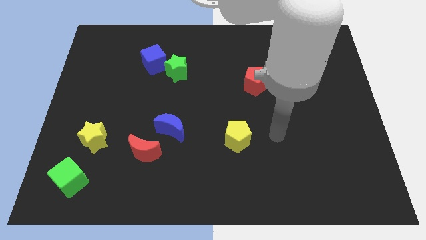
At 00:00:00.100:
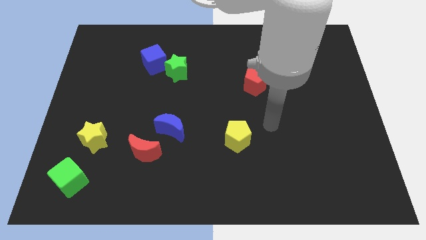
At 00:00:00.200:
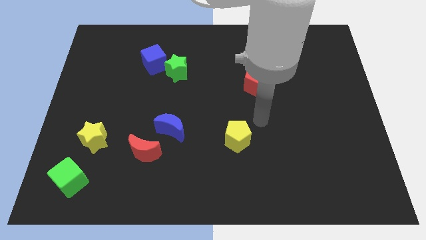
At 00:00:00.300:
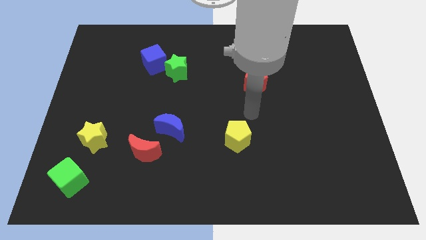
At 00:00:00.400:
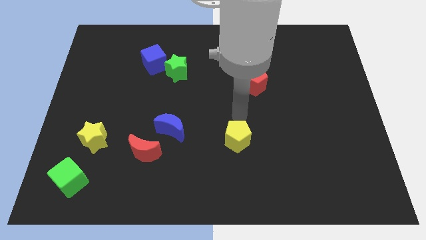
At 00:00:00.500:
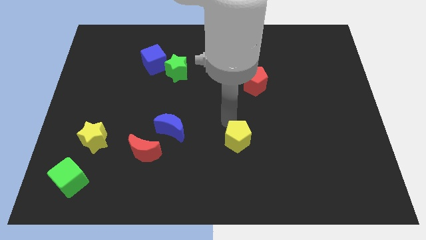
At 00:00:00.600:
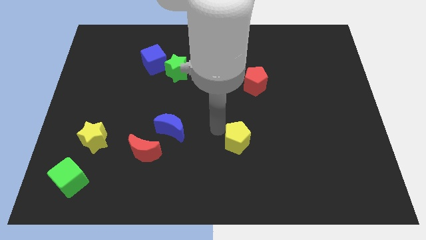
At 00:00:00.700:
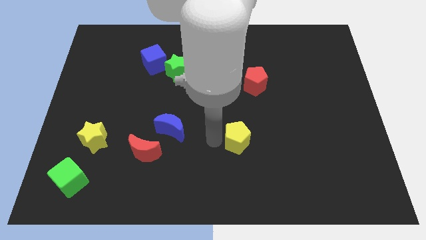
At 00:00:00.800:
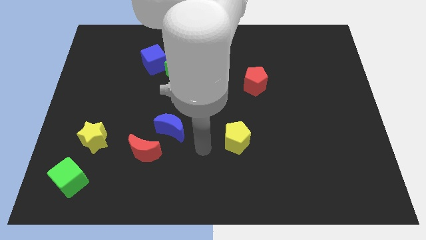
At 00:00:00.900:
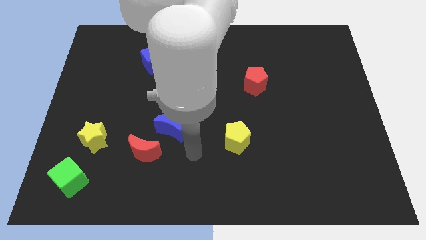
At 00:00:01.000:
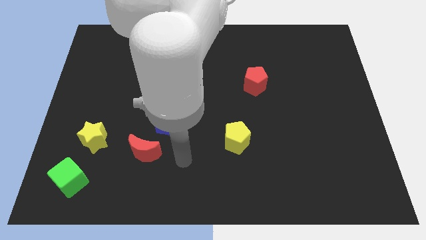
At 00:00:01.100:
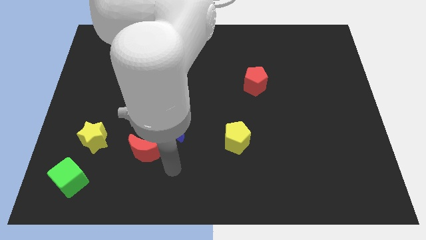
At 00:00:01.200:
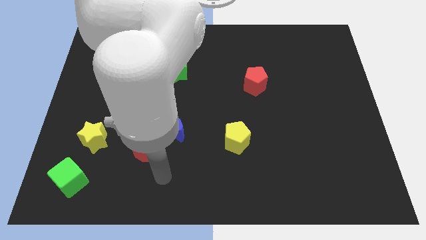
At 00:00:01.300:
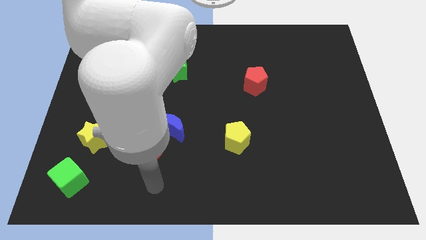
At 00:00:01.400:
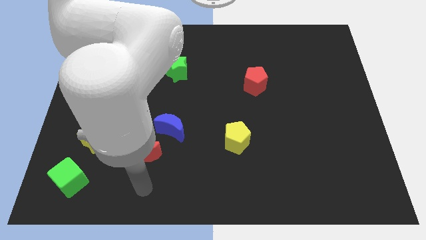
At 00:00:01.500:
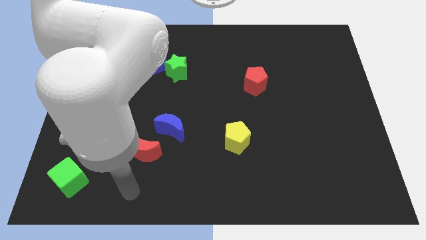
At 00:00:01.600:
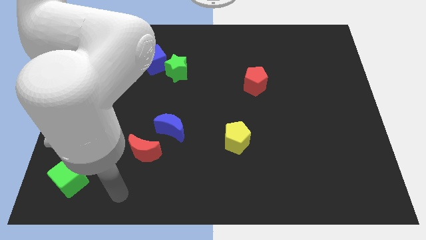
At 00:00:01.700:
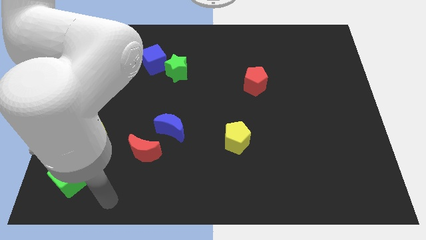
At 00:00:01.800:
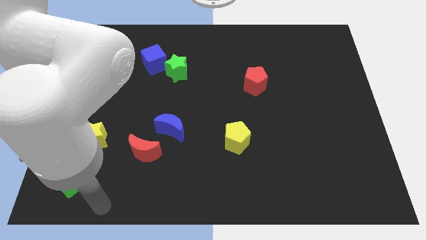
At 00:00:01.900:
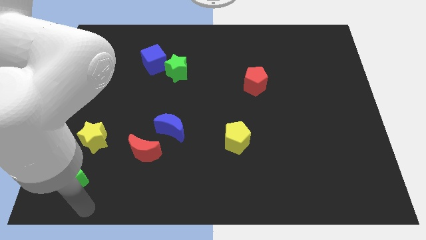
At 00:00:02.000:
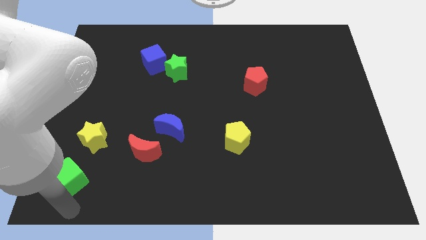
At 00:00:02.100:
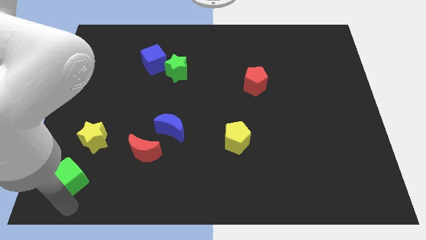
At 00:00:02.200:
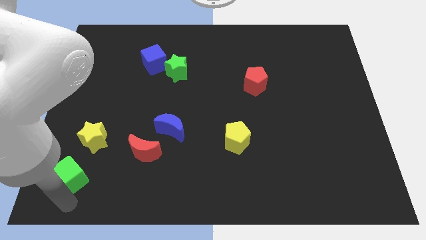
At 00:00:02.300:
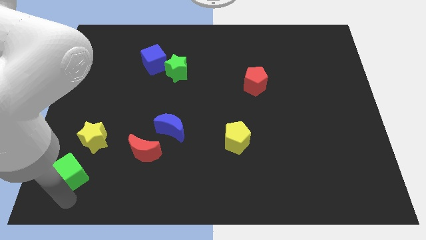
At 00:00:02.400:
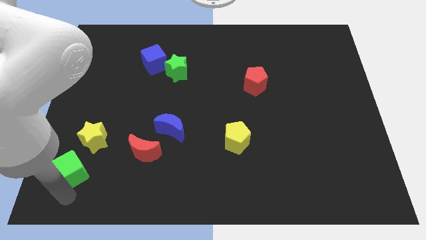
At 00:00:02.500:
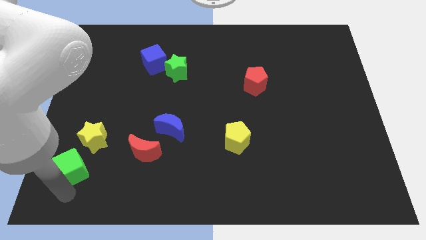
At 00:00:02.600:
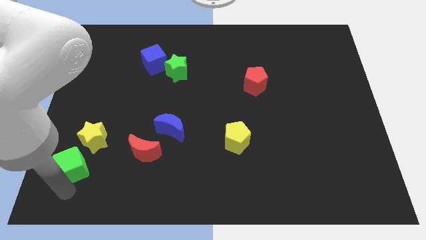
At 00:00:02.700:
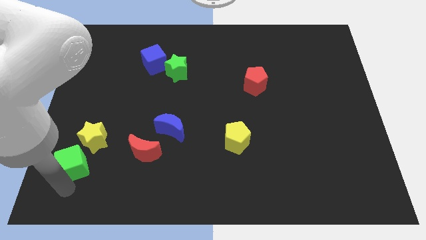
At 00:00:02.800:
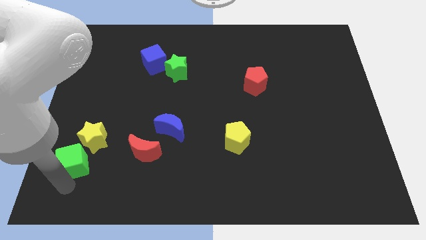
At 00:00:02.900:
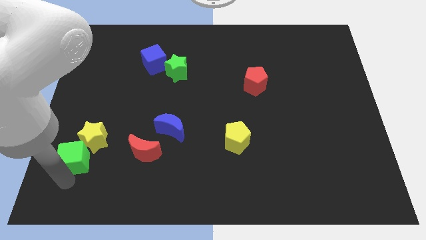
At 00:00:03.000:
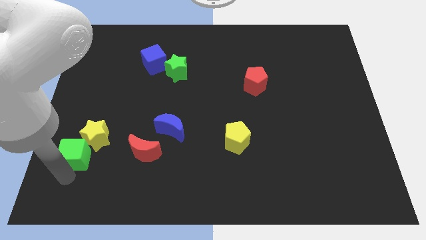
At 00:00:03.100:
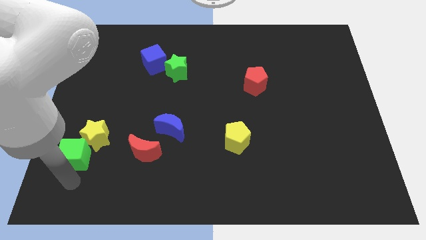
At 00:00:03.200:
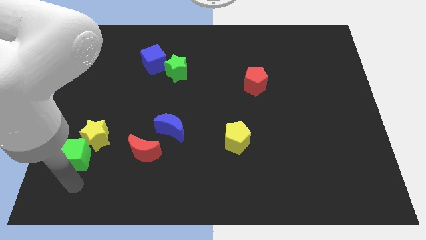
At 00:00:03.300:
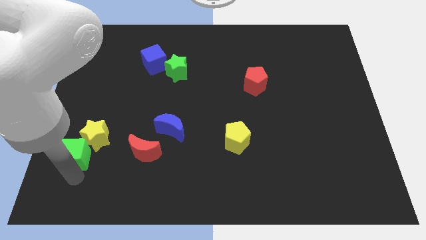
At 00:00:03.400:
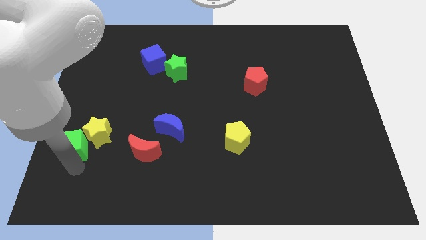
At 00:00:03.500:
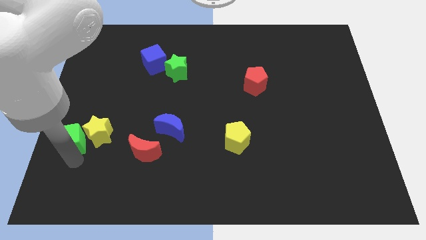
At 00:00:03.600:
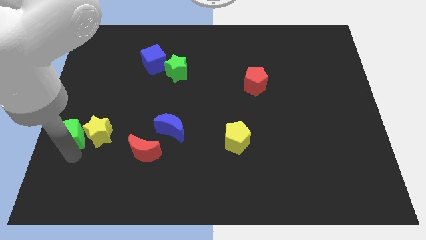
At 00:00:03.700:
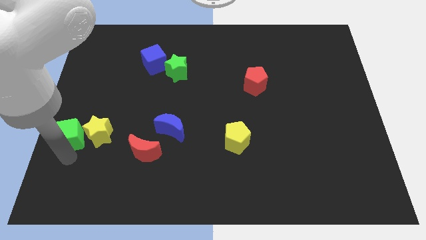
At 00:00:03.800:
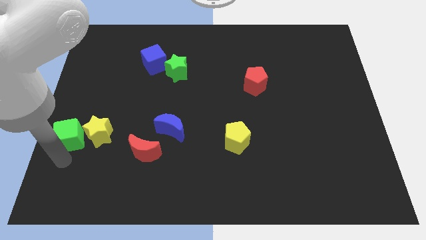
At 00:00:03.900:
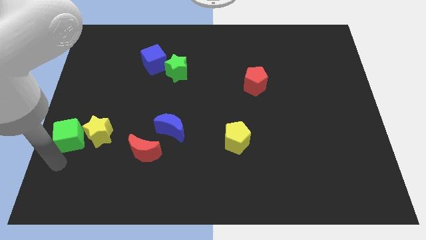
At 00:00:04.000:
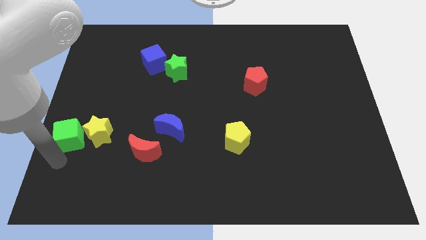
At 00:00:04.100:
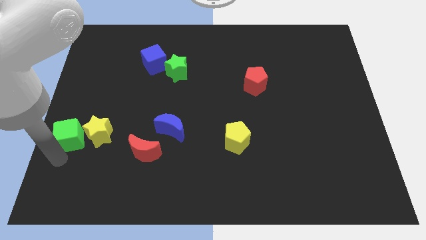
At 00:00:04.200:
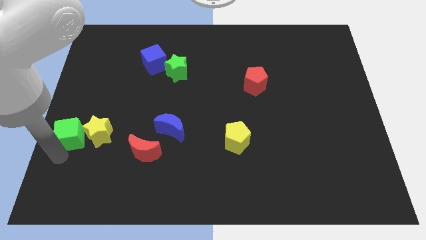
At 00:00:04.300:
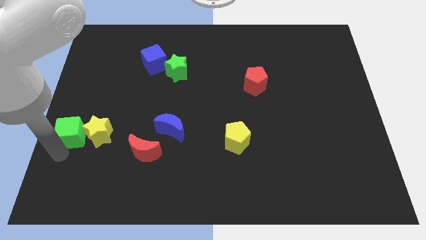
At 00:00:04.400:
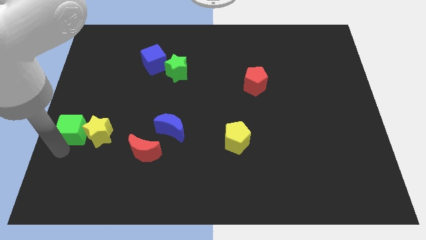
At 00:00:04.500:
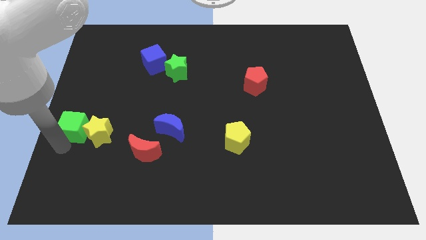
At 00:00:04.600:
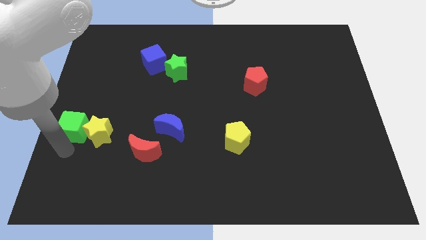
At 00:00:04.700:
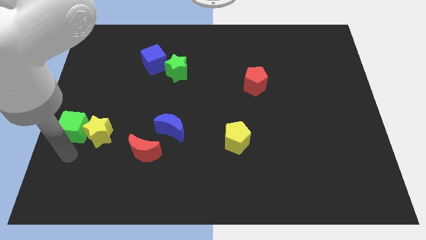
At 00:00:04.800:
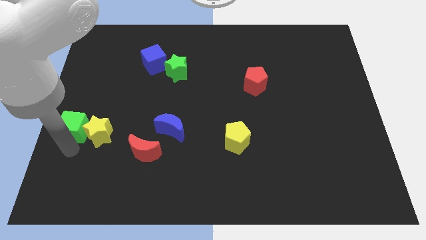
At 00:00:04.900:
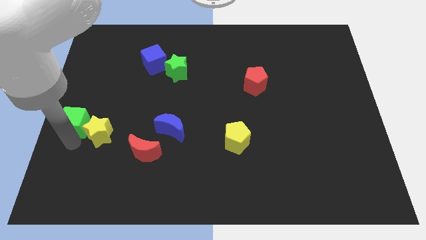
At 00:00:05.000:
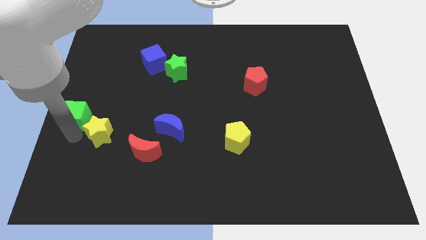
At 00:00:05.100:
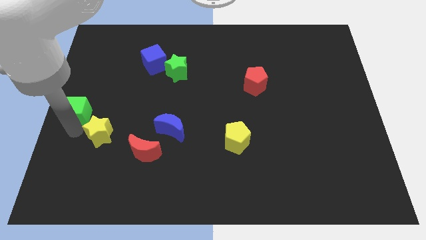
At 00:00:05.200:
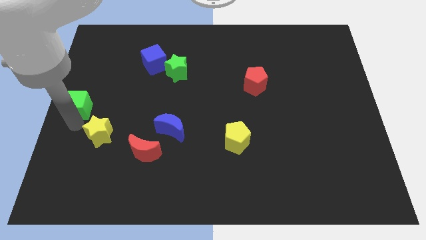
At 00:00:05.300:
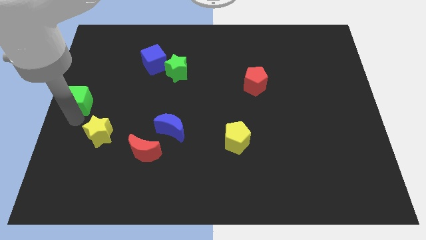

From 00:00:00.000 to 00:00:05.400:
push the green cube upwards

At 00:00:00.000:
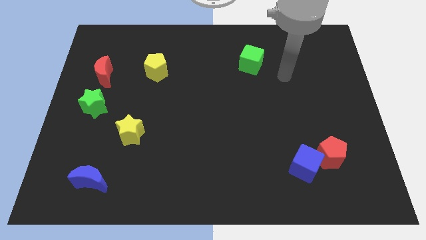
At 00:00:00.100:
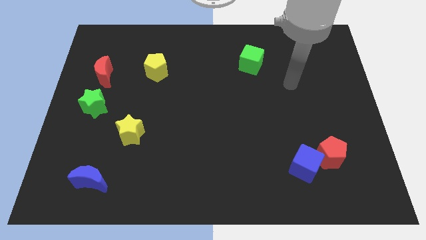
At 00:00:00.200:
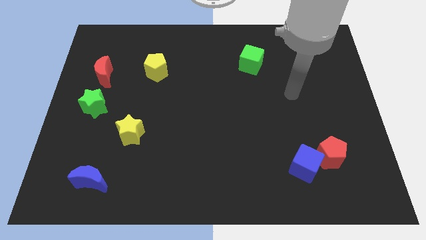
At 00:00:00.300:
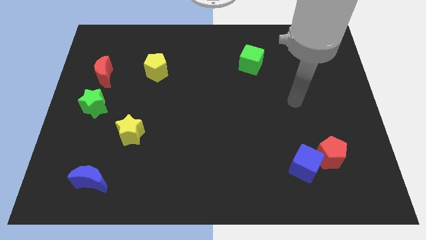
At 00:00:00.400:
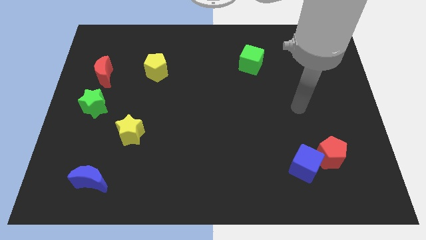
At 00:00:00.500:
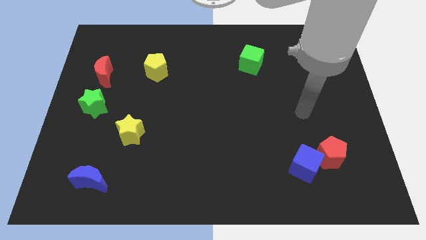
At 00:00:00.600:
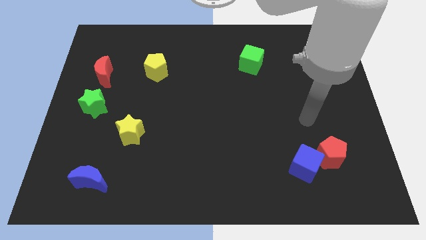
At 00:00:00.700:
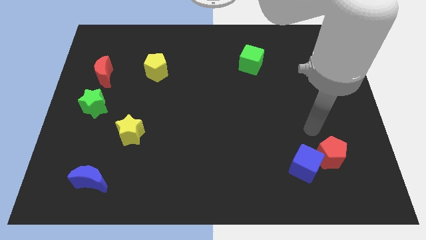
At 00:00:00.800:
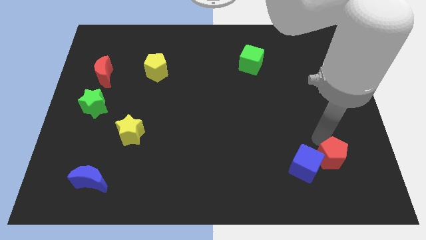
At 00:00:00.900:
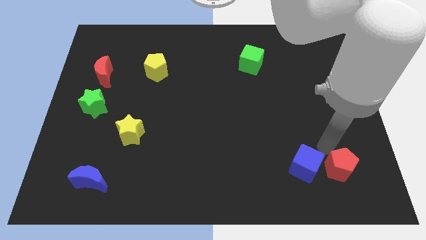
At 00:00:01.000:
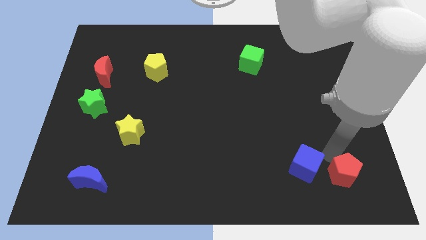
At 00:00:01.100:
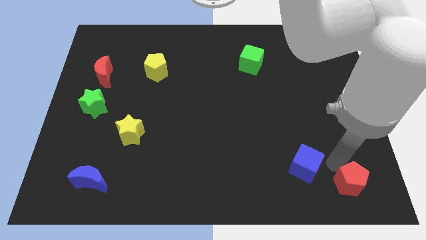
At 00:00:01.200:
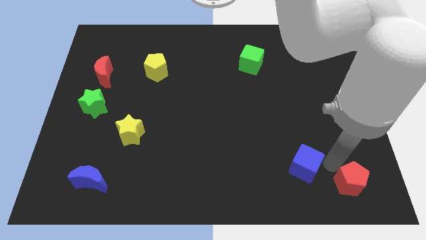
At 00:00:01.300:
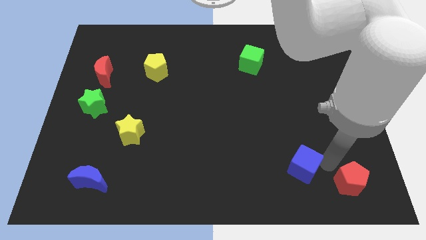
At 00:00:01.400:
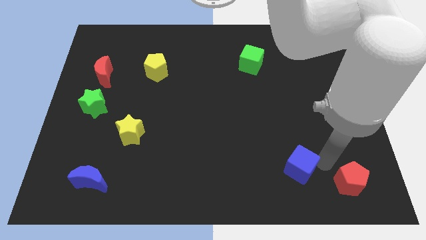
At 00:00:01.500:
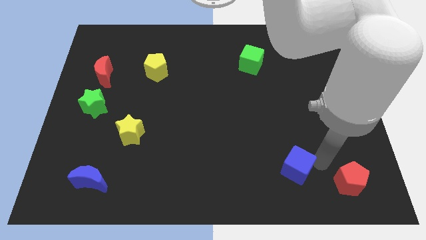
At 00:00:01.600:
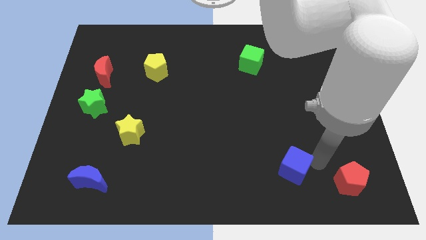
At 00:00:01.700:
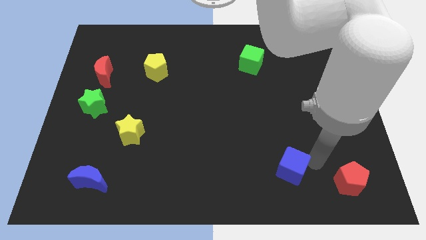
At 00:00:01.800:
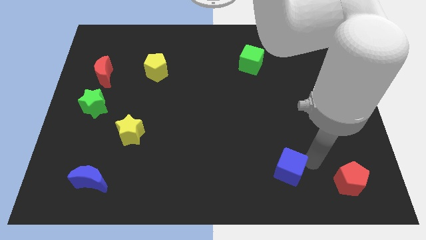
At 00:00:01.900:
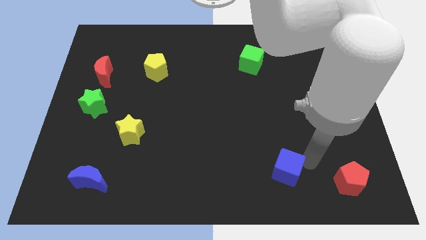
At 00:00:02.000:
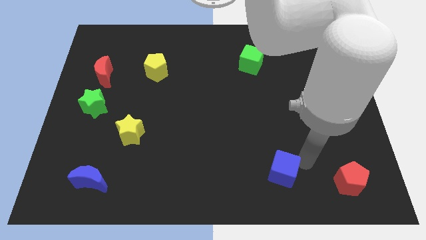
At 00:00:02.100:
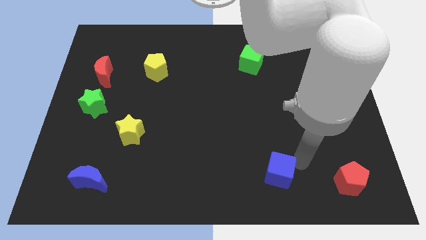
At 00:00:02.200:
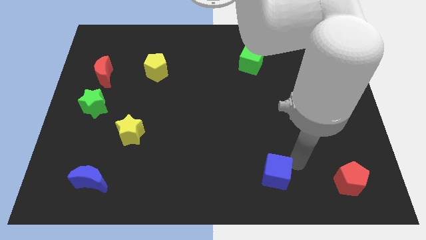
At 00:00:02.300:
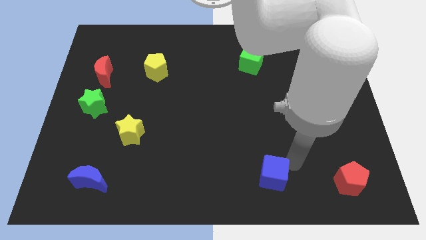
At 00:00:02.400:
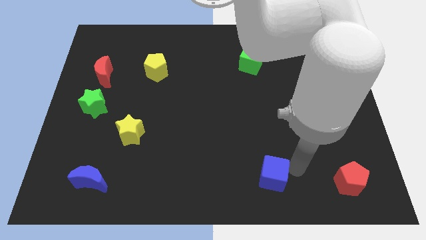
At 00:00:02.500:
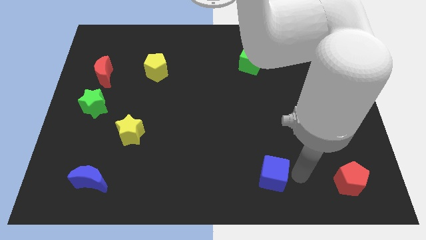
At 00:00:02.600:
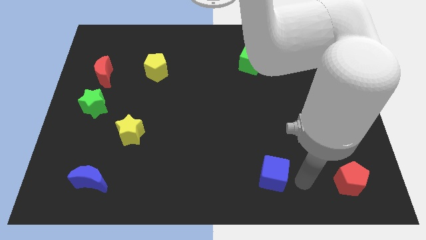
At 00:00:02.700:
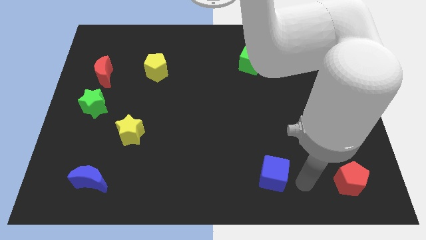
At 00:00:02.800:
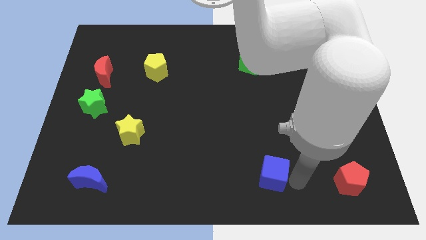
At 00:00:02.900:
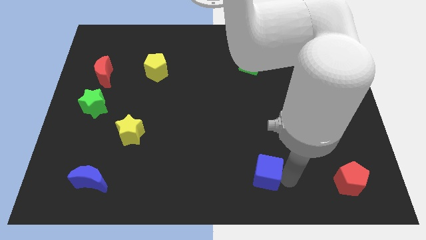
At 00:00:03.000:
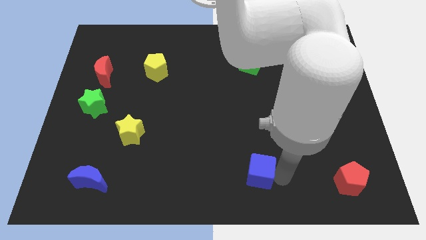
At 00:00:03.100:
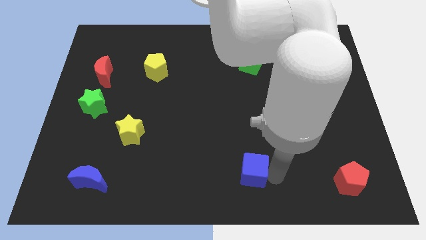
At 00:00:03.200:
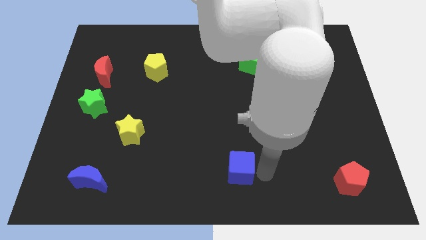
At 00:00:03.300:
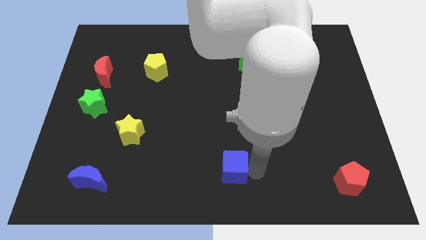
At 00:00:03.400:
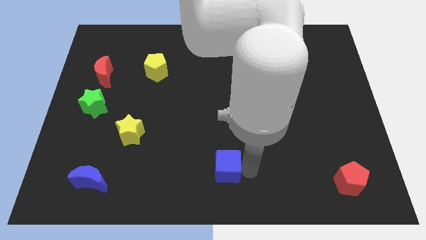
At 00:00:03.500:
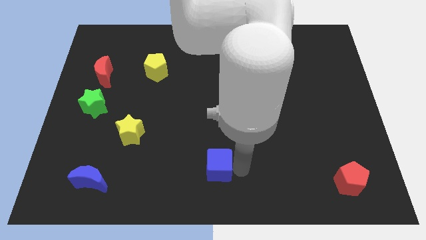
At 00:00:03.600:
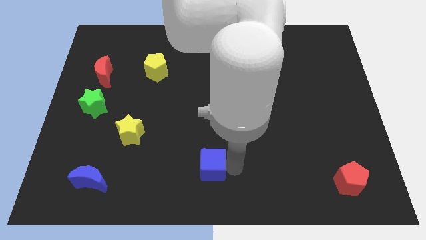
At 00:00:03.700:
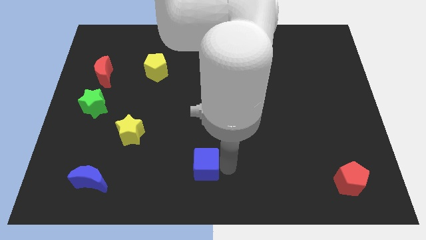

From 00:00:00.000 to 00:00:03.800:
move the blue cube to the left
